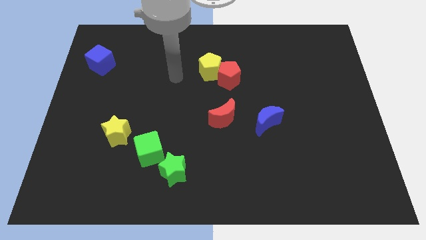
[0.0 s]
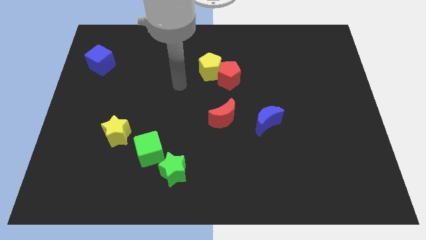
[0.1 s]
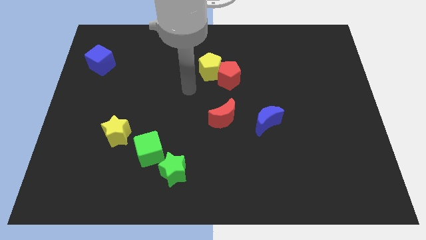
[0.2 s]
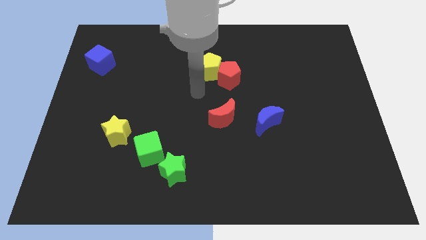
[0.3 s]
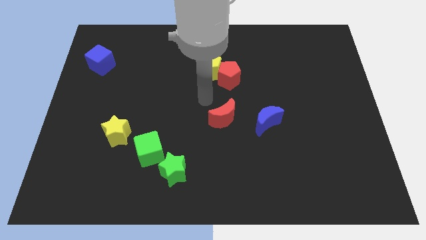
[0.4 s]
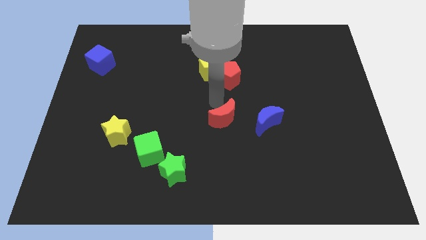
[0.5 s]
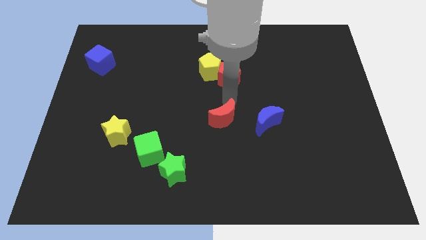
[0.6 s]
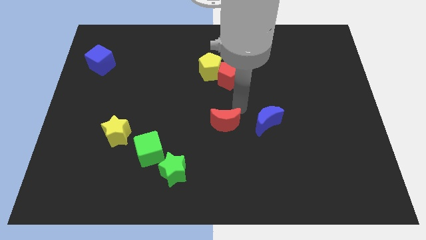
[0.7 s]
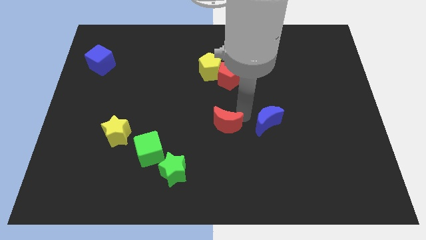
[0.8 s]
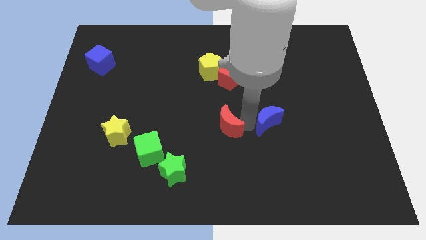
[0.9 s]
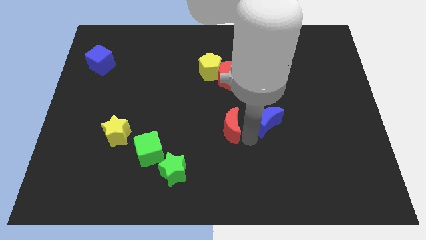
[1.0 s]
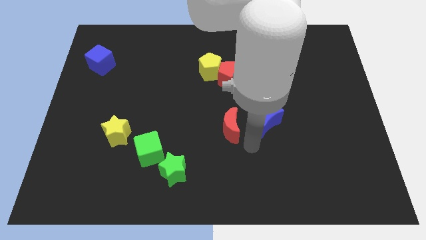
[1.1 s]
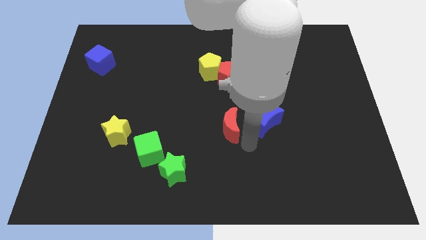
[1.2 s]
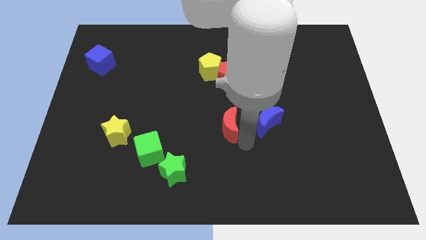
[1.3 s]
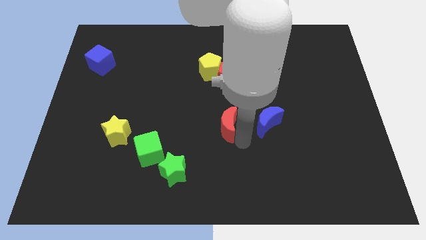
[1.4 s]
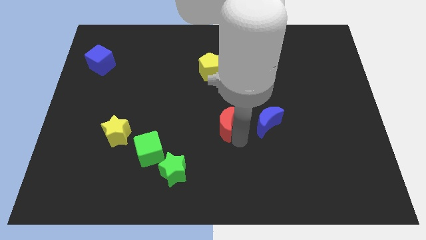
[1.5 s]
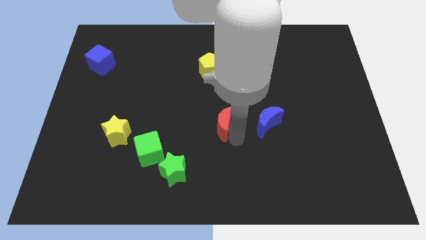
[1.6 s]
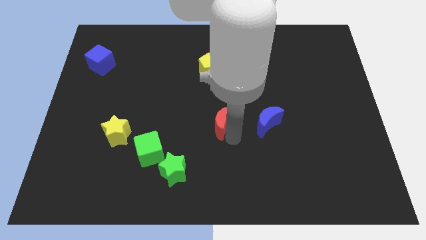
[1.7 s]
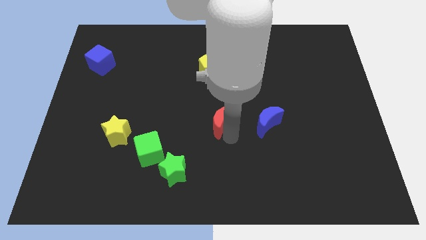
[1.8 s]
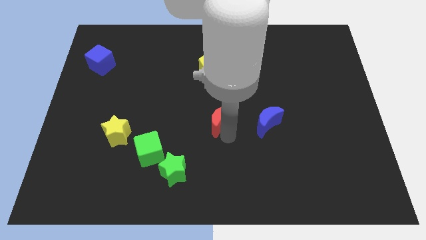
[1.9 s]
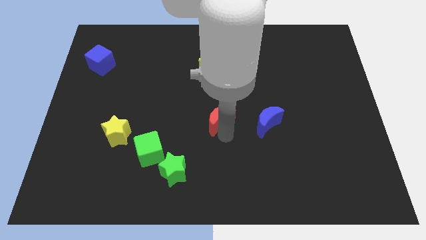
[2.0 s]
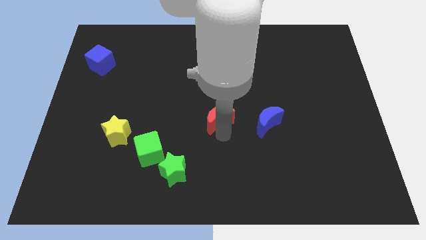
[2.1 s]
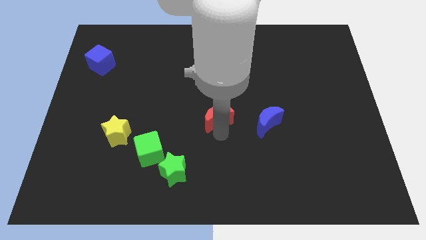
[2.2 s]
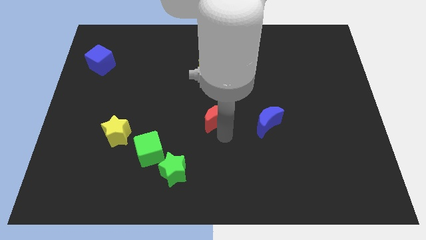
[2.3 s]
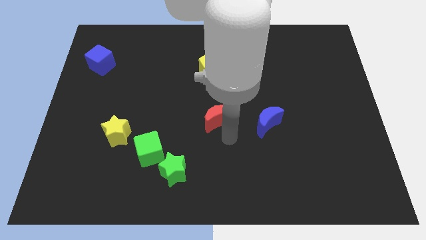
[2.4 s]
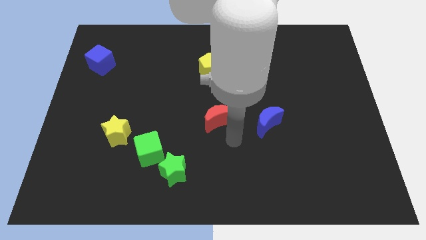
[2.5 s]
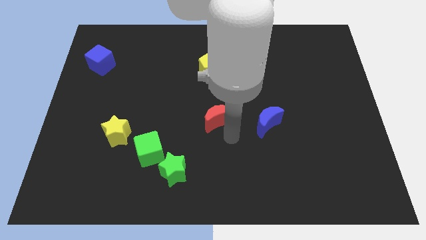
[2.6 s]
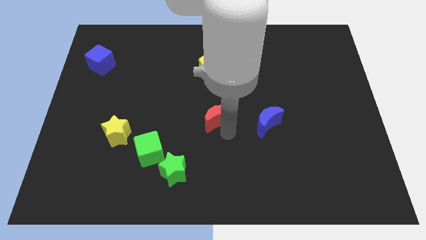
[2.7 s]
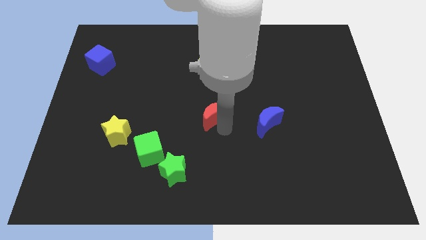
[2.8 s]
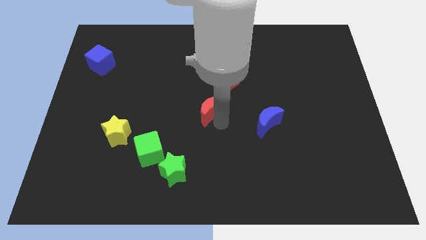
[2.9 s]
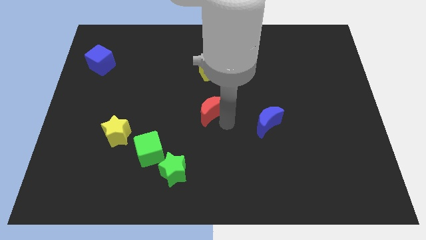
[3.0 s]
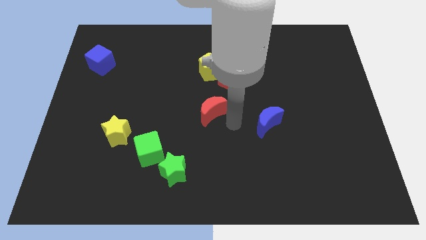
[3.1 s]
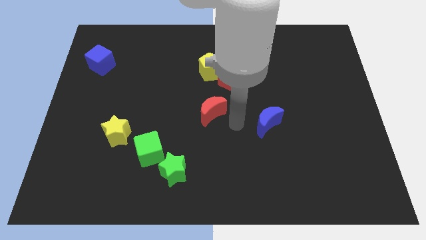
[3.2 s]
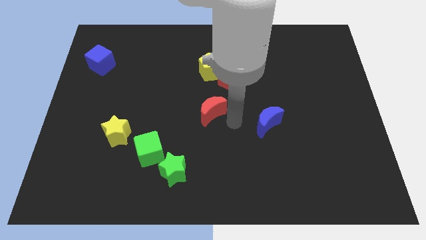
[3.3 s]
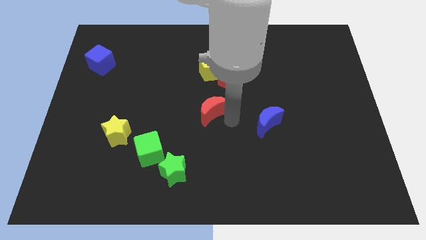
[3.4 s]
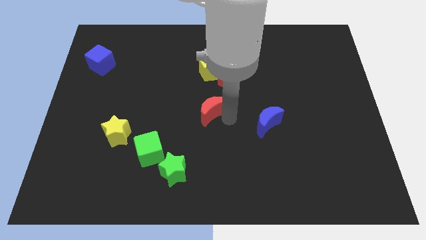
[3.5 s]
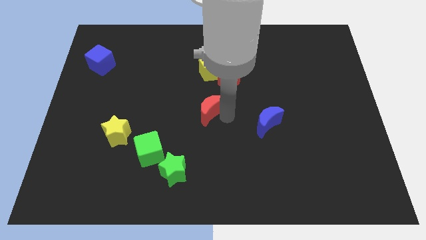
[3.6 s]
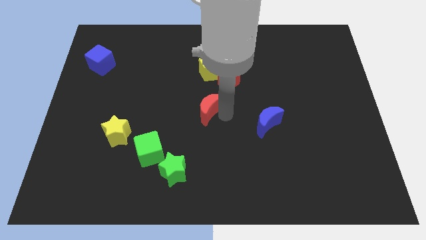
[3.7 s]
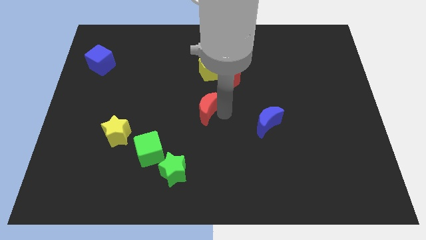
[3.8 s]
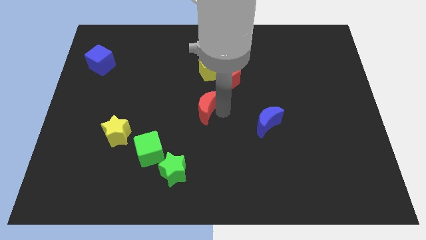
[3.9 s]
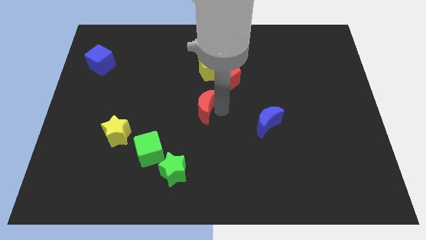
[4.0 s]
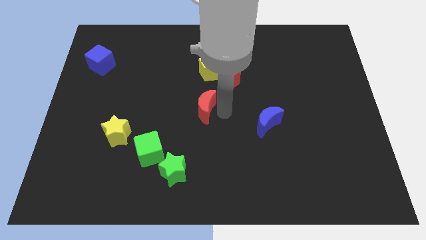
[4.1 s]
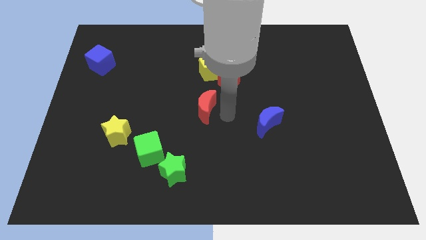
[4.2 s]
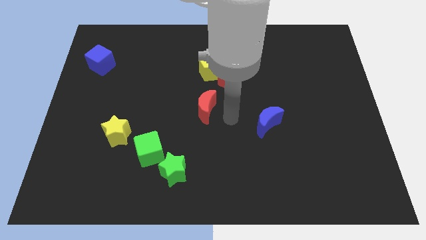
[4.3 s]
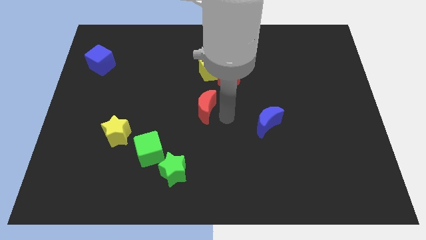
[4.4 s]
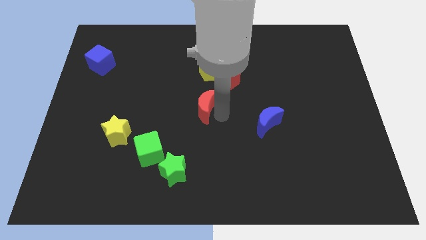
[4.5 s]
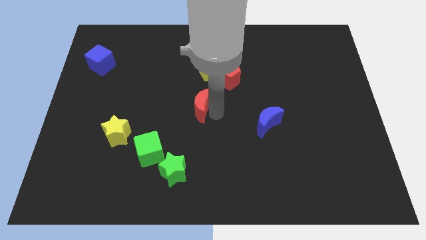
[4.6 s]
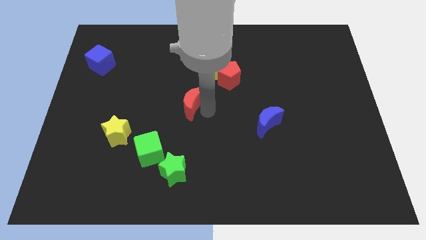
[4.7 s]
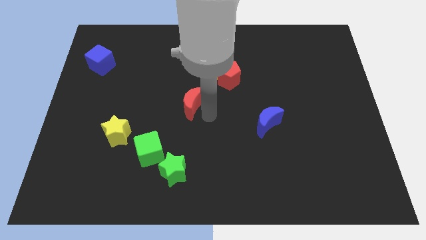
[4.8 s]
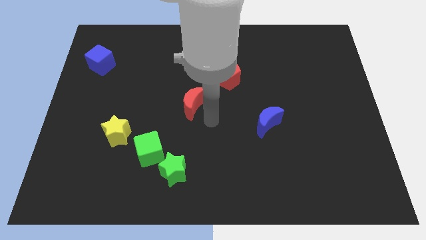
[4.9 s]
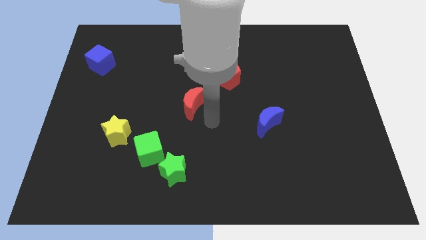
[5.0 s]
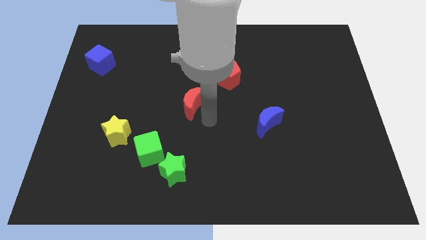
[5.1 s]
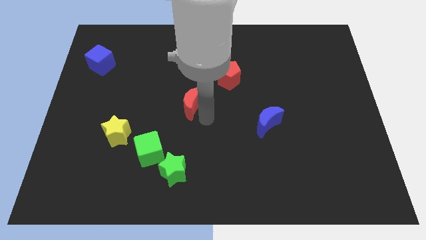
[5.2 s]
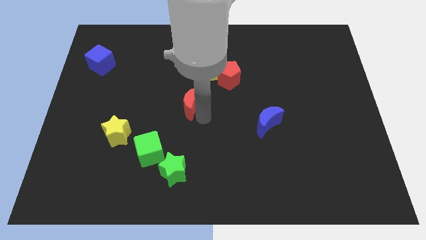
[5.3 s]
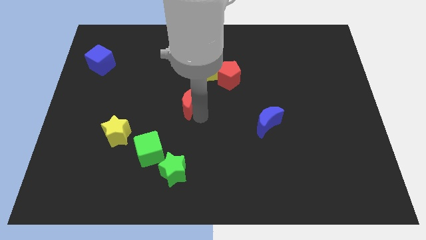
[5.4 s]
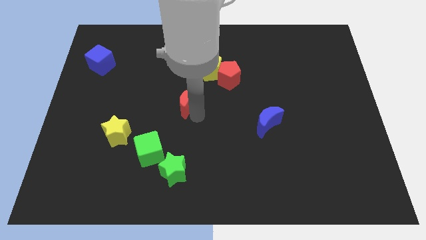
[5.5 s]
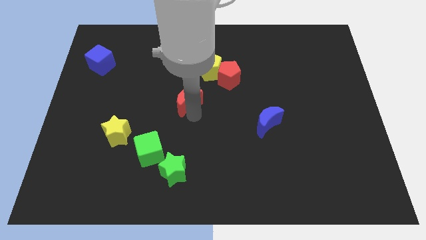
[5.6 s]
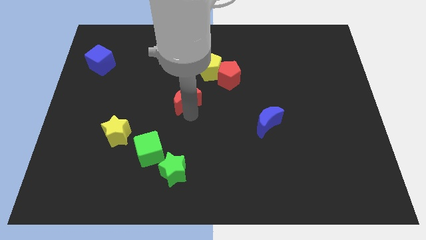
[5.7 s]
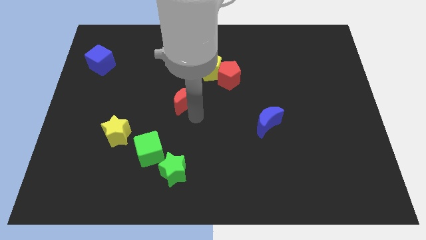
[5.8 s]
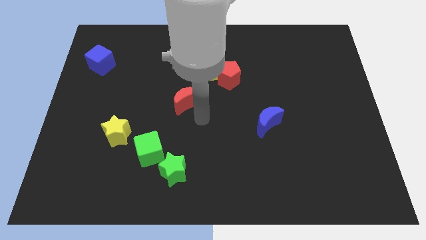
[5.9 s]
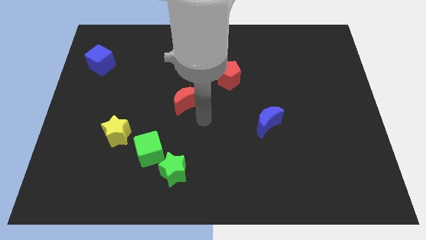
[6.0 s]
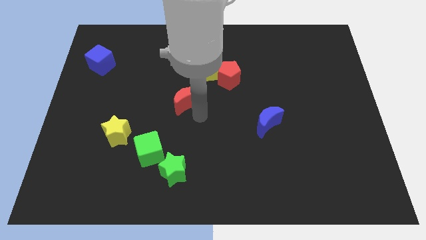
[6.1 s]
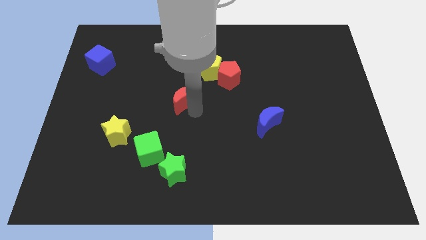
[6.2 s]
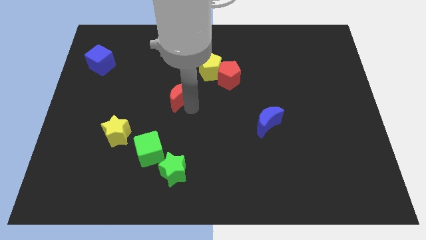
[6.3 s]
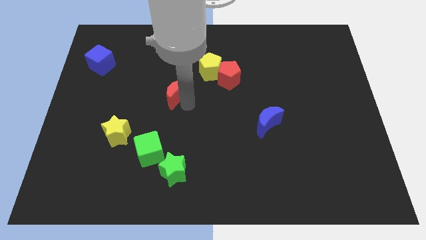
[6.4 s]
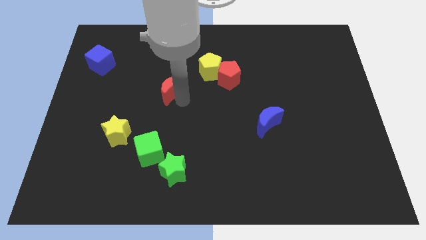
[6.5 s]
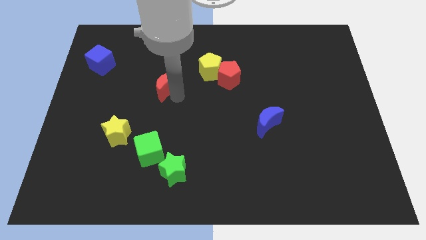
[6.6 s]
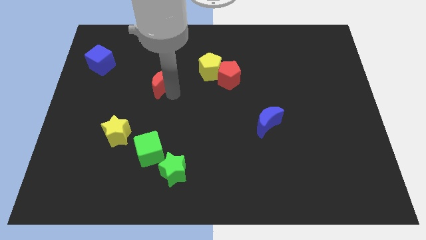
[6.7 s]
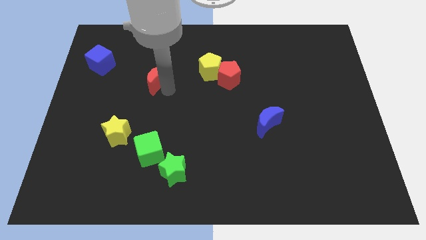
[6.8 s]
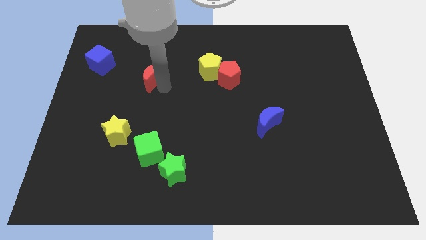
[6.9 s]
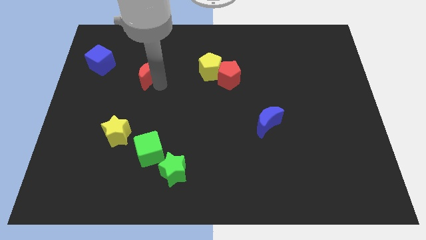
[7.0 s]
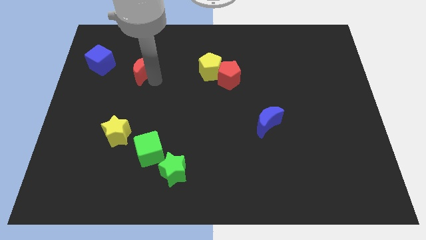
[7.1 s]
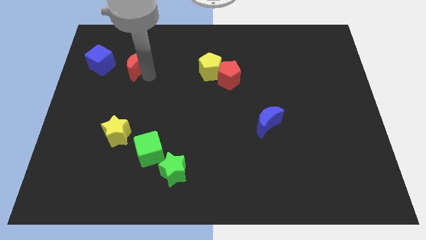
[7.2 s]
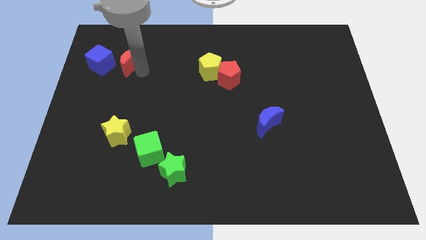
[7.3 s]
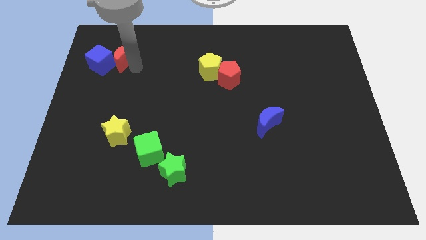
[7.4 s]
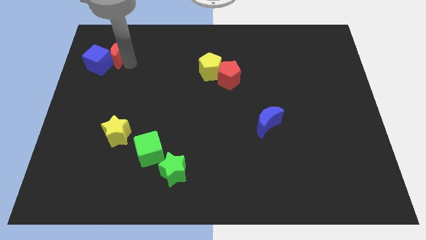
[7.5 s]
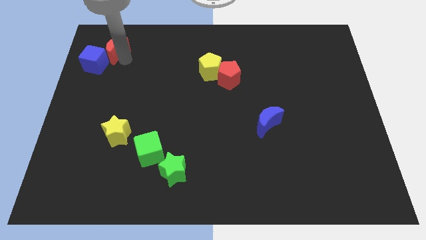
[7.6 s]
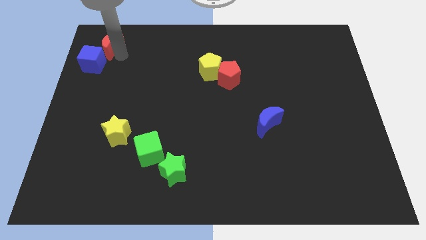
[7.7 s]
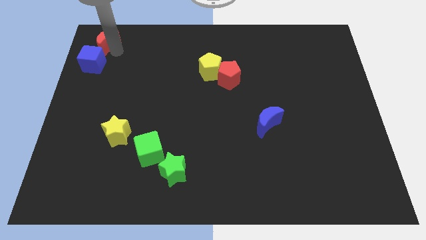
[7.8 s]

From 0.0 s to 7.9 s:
slide the red moon to the top left corner
